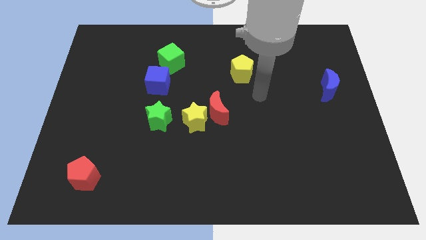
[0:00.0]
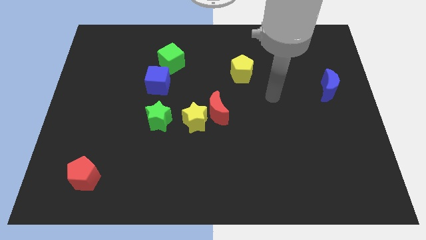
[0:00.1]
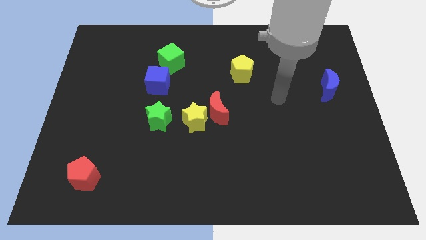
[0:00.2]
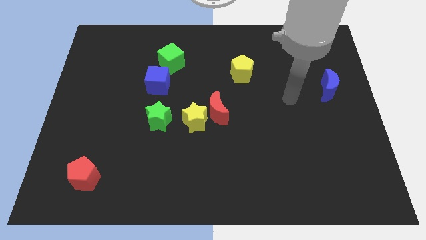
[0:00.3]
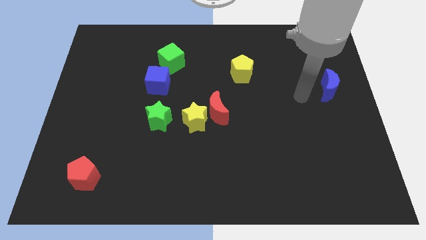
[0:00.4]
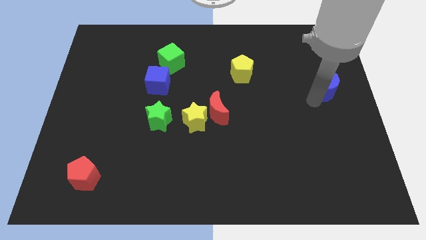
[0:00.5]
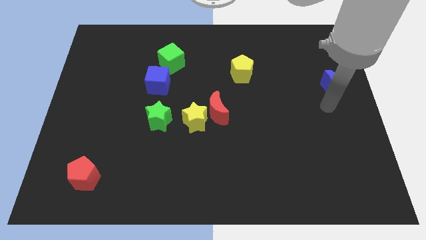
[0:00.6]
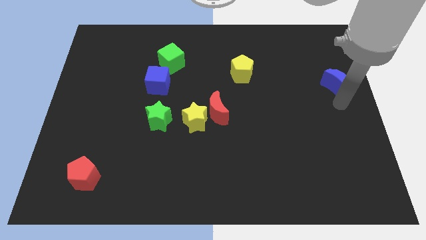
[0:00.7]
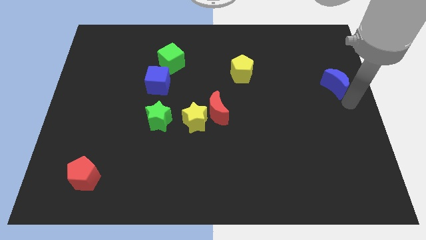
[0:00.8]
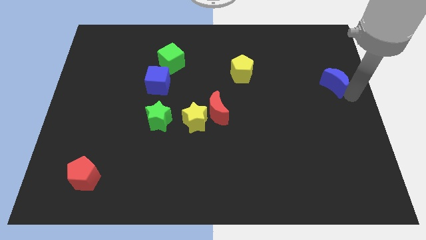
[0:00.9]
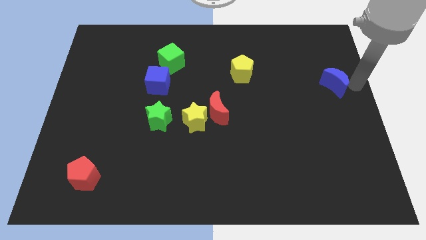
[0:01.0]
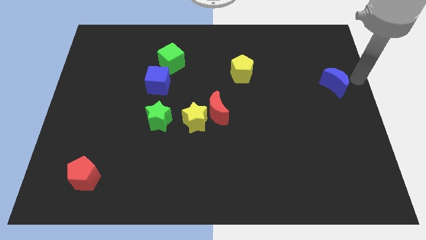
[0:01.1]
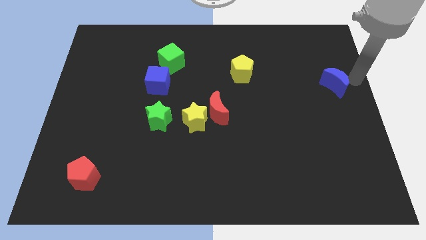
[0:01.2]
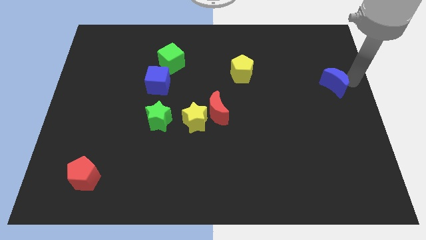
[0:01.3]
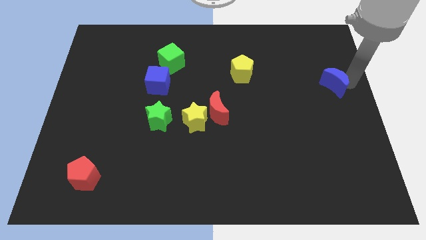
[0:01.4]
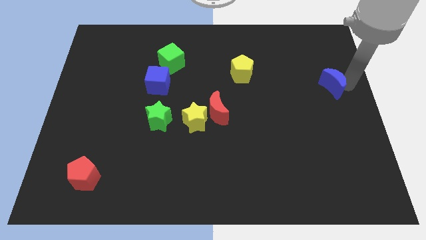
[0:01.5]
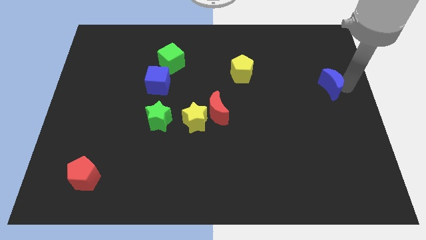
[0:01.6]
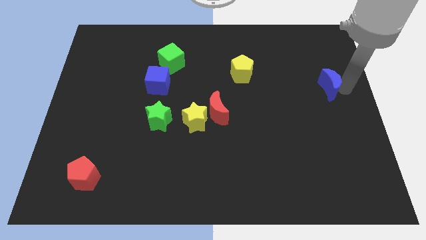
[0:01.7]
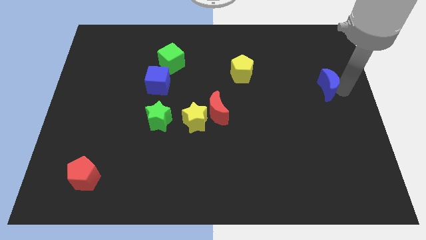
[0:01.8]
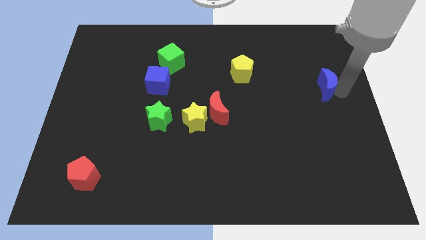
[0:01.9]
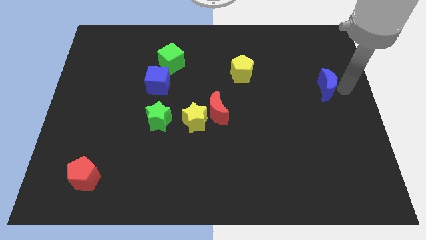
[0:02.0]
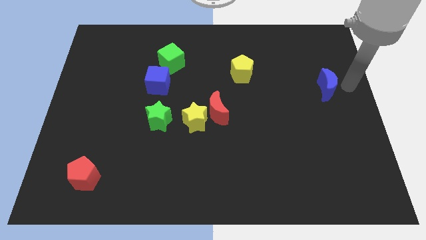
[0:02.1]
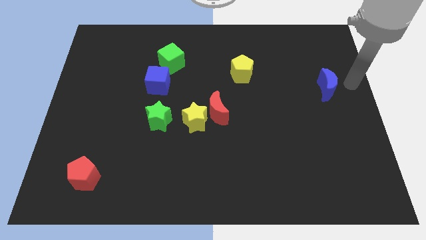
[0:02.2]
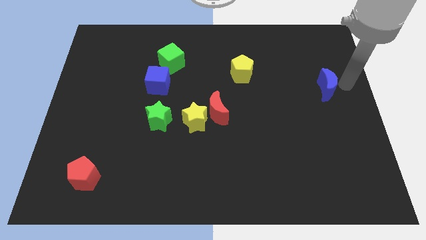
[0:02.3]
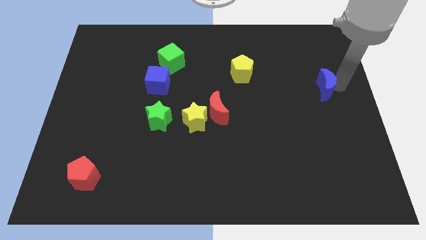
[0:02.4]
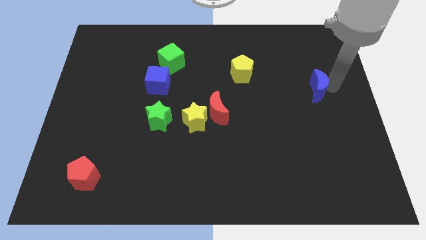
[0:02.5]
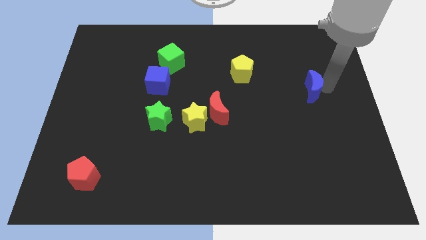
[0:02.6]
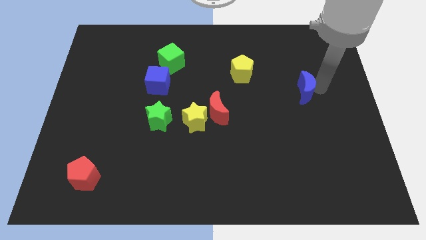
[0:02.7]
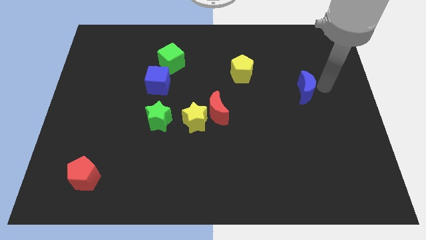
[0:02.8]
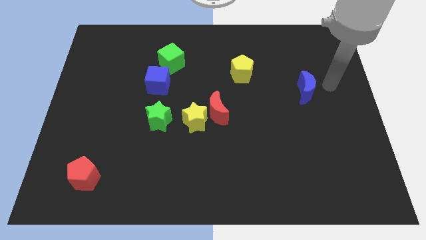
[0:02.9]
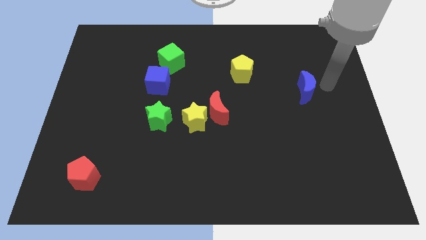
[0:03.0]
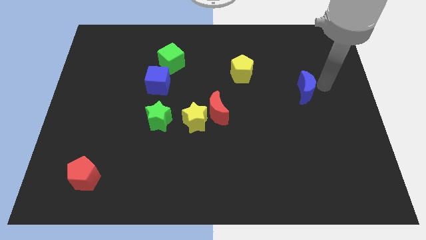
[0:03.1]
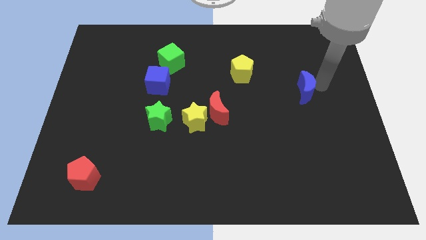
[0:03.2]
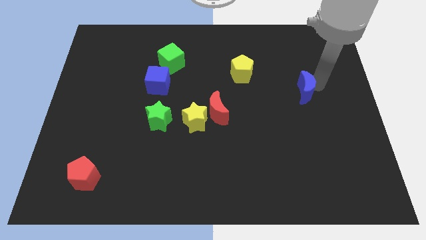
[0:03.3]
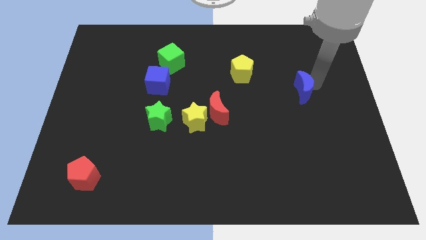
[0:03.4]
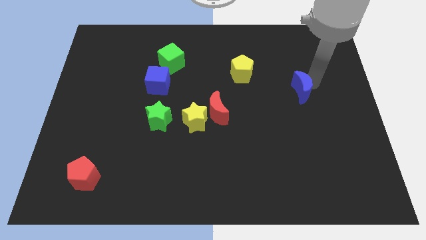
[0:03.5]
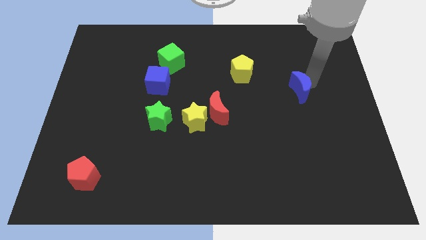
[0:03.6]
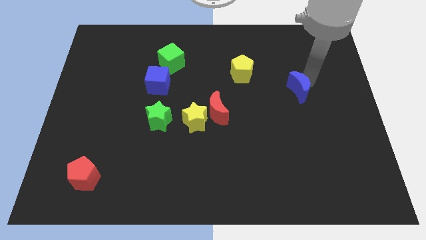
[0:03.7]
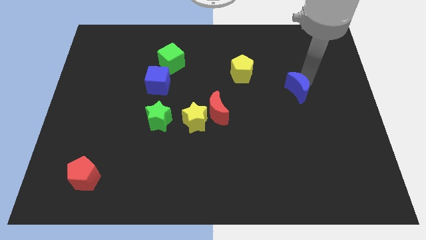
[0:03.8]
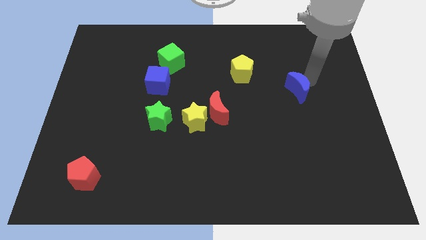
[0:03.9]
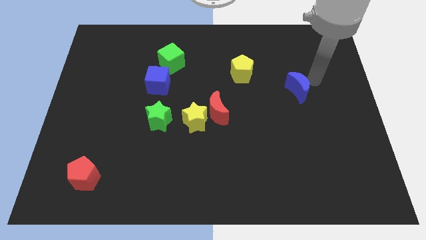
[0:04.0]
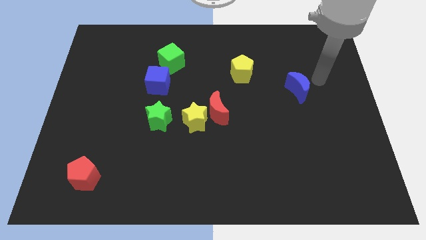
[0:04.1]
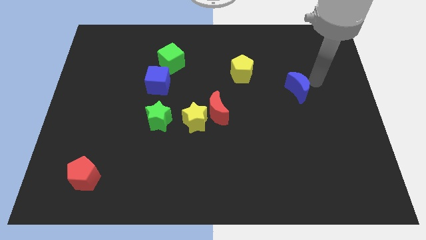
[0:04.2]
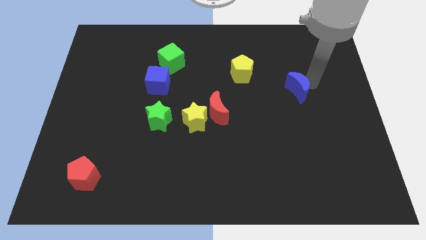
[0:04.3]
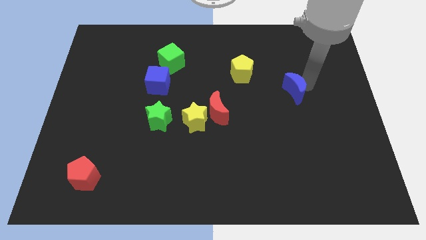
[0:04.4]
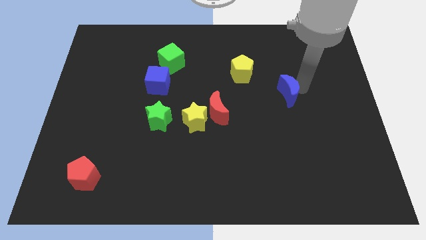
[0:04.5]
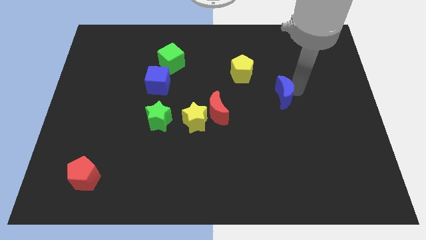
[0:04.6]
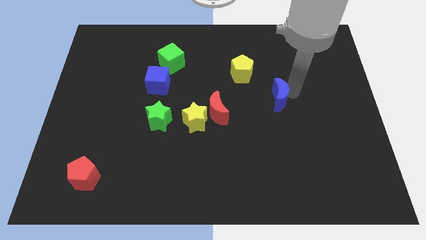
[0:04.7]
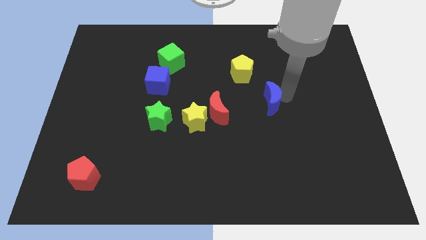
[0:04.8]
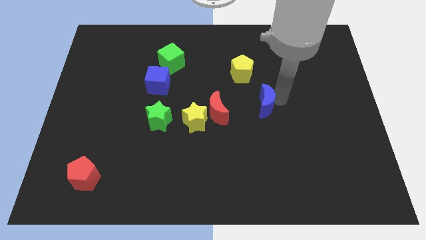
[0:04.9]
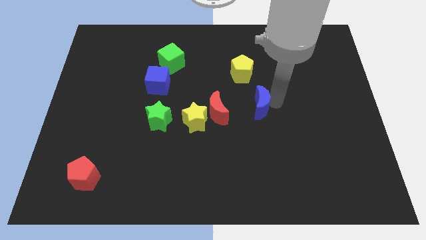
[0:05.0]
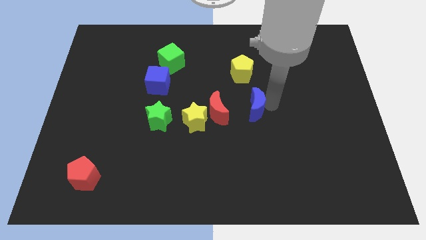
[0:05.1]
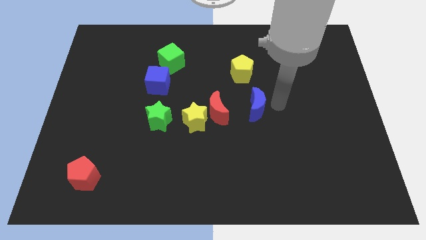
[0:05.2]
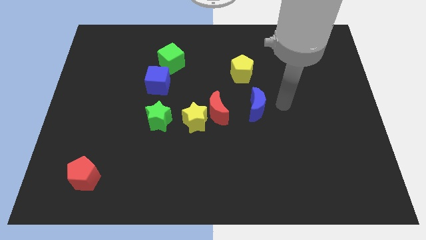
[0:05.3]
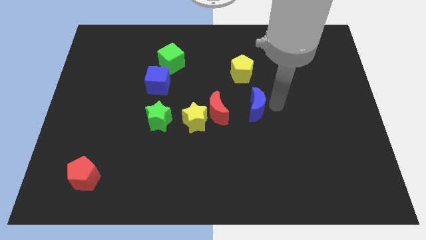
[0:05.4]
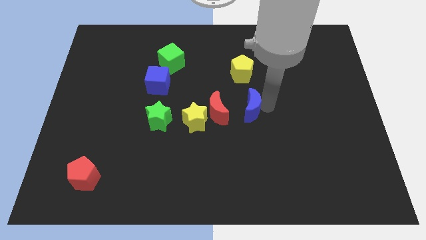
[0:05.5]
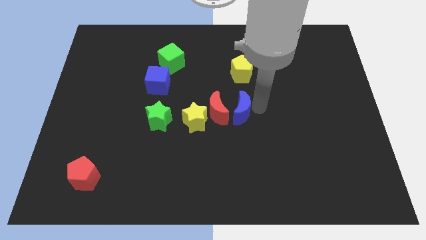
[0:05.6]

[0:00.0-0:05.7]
slide the blue moon close to the red moon

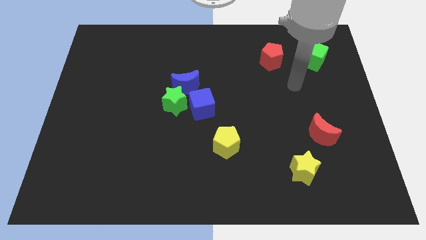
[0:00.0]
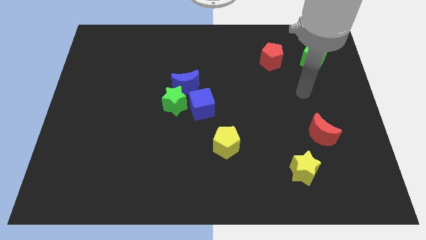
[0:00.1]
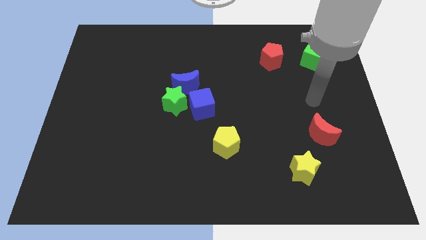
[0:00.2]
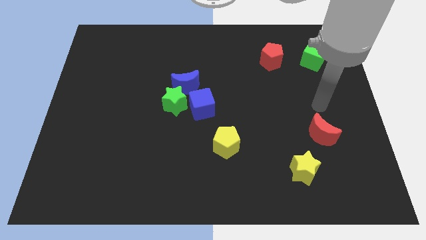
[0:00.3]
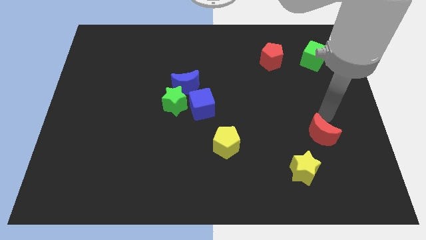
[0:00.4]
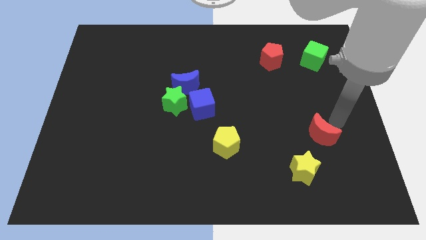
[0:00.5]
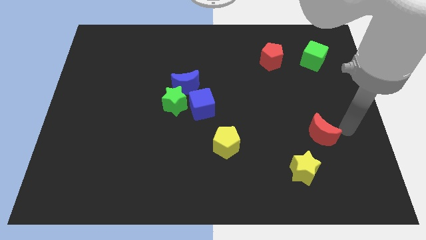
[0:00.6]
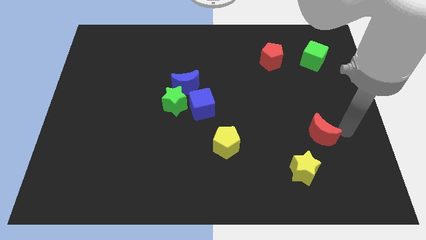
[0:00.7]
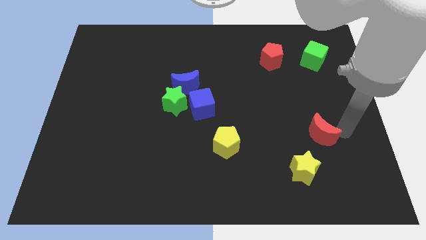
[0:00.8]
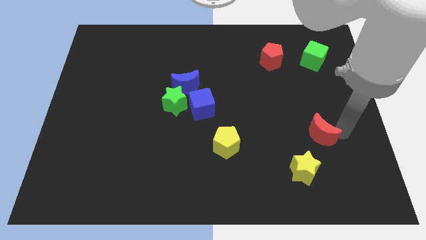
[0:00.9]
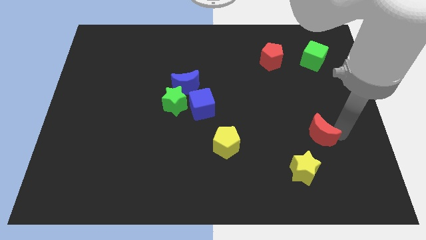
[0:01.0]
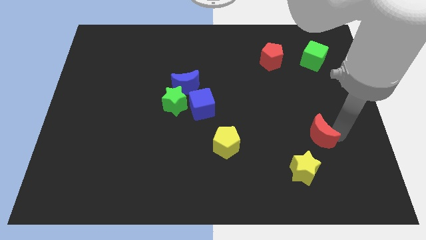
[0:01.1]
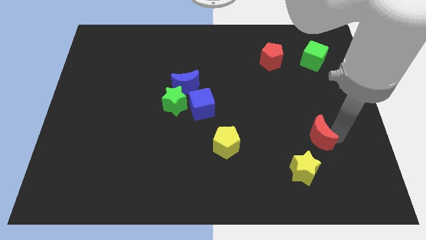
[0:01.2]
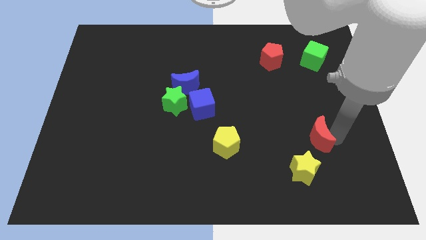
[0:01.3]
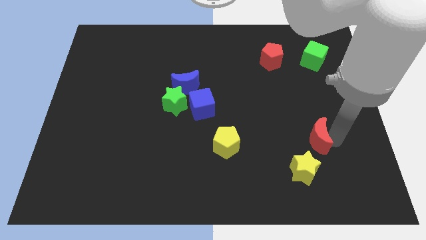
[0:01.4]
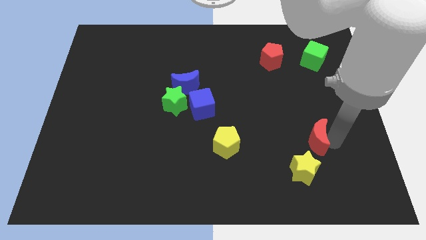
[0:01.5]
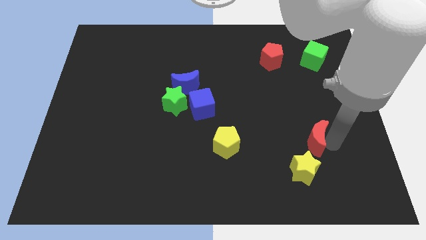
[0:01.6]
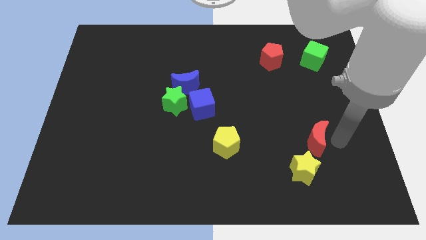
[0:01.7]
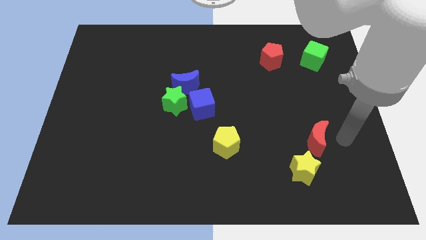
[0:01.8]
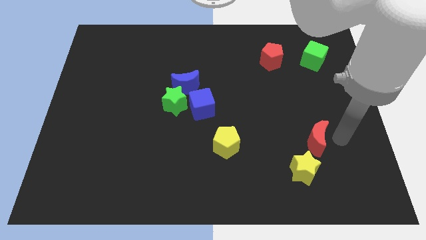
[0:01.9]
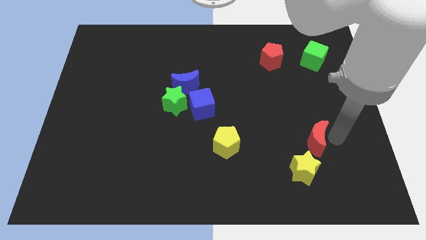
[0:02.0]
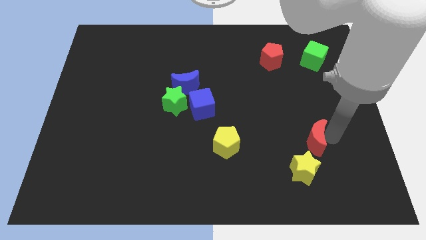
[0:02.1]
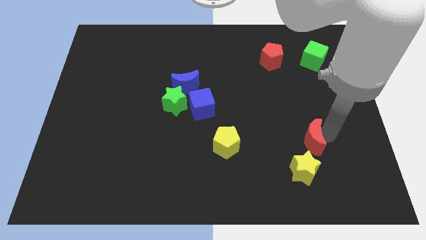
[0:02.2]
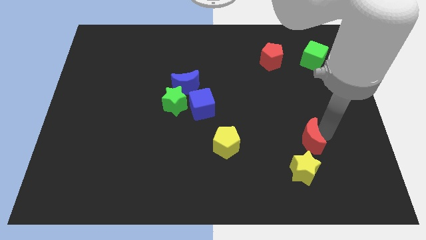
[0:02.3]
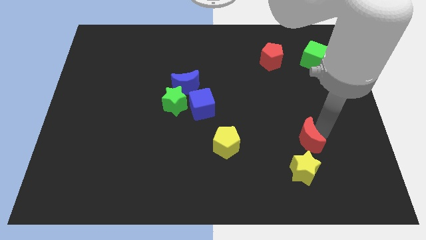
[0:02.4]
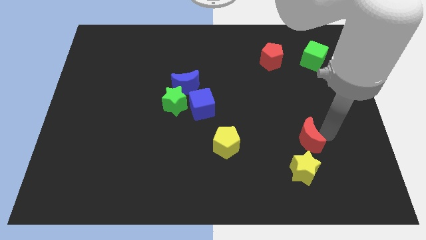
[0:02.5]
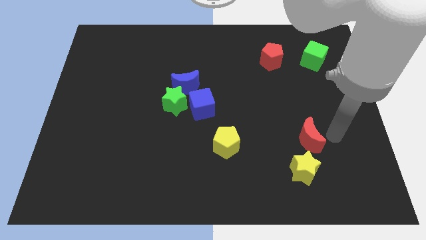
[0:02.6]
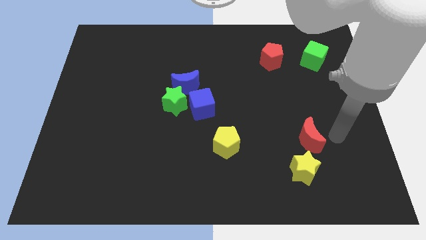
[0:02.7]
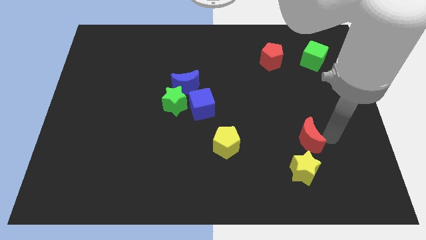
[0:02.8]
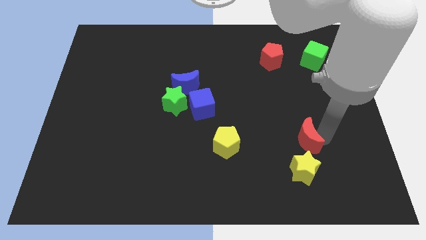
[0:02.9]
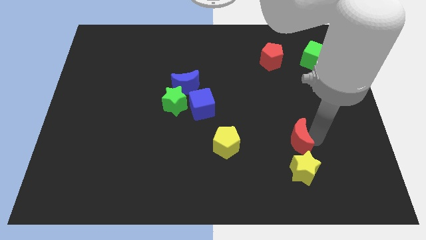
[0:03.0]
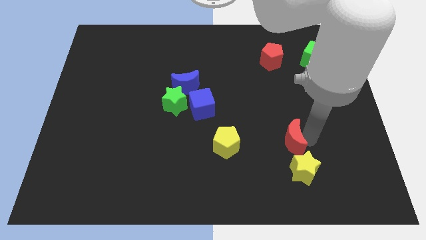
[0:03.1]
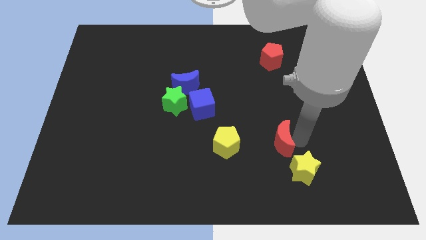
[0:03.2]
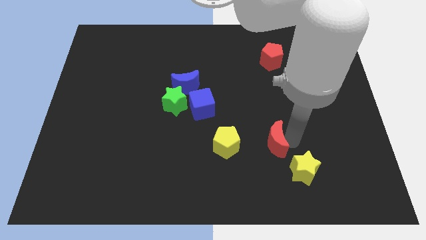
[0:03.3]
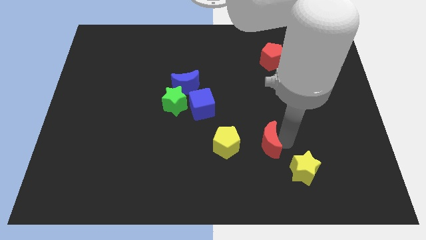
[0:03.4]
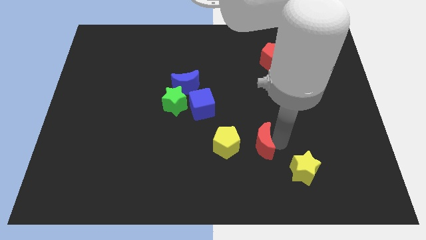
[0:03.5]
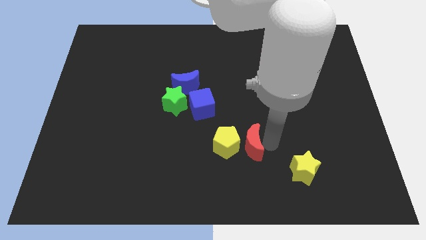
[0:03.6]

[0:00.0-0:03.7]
slide the red moon next to the yellow pentagon
